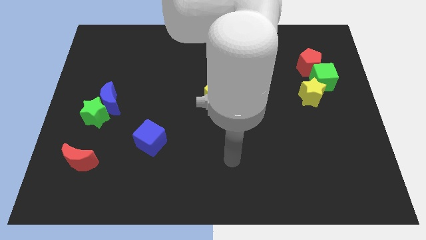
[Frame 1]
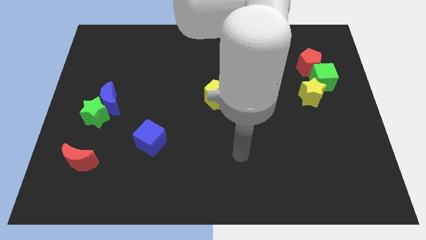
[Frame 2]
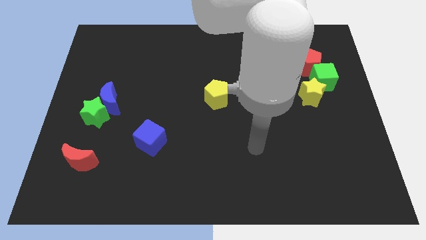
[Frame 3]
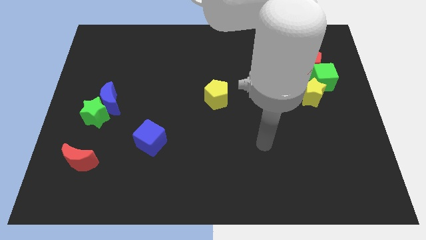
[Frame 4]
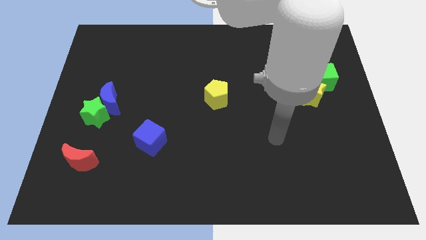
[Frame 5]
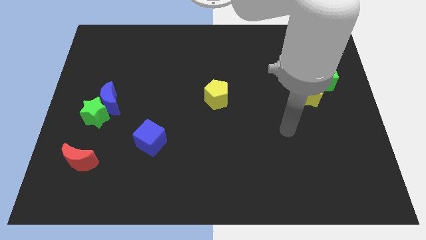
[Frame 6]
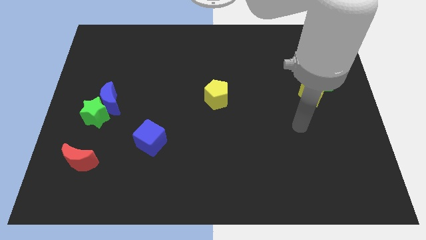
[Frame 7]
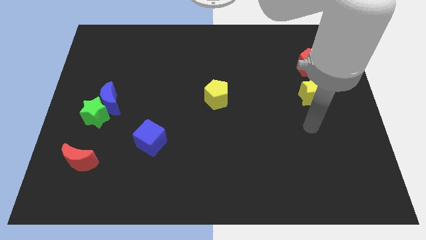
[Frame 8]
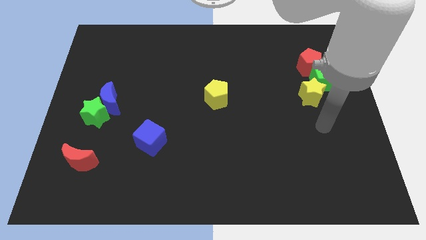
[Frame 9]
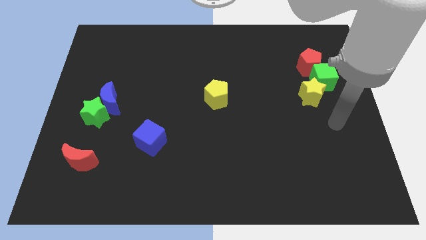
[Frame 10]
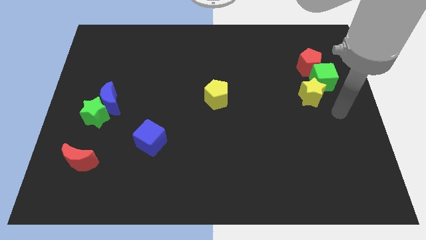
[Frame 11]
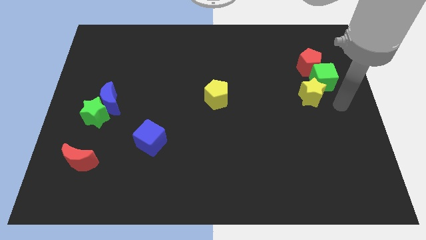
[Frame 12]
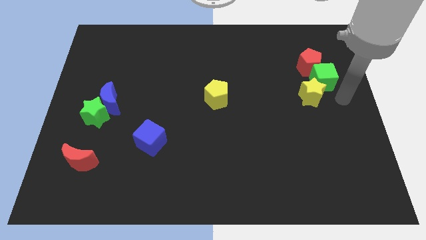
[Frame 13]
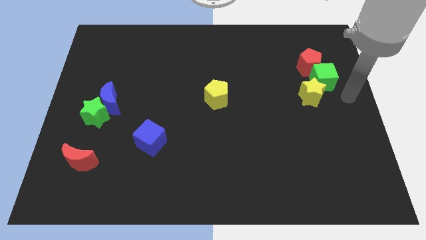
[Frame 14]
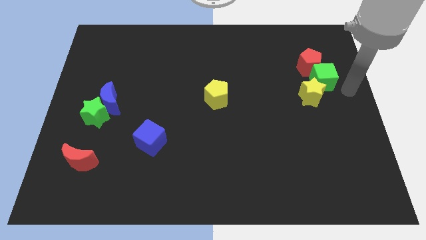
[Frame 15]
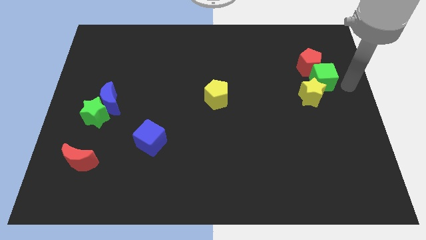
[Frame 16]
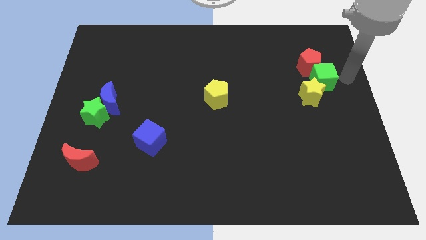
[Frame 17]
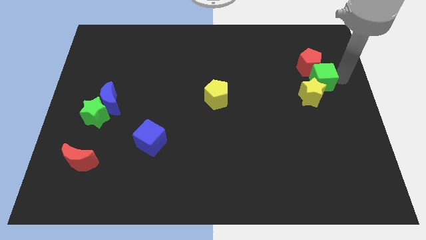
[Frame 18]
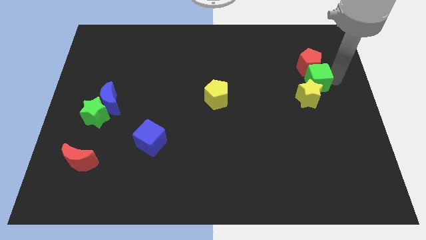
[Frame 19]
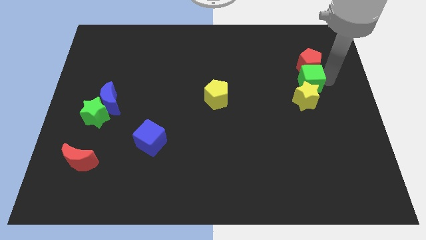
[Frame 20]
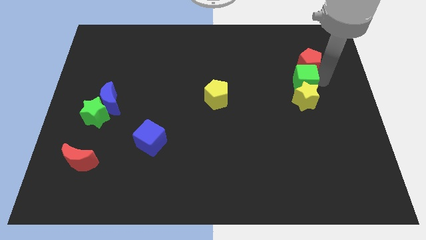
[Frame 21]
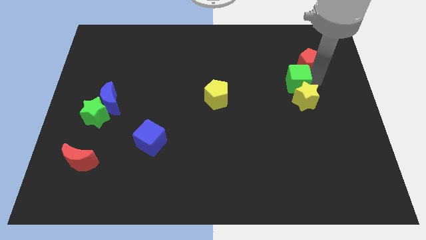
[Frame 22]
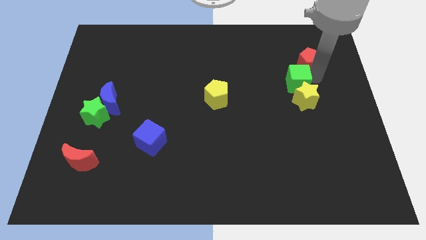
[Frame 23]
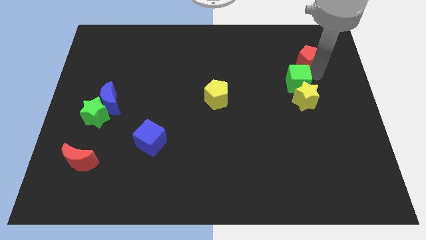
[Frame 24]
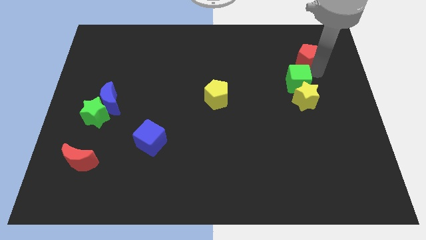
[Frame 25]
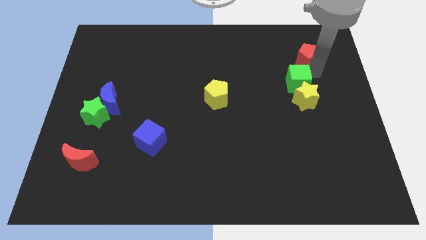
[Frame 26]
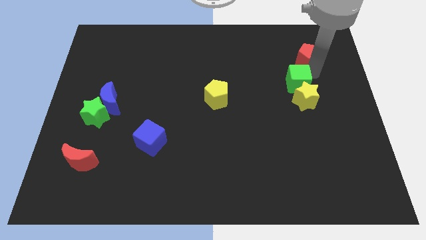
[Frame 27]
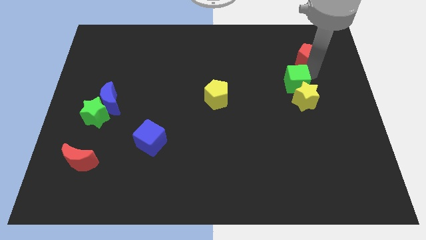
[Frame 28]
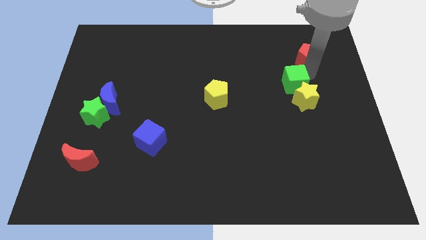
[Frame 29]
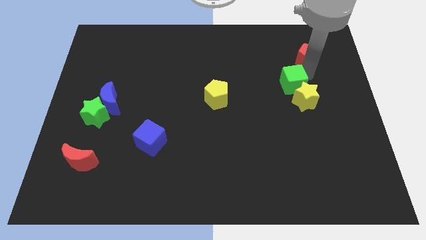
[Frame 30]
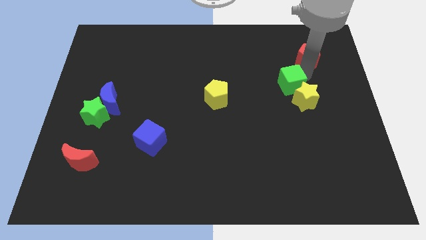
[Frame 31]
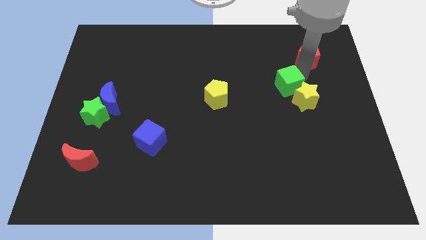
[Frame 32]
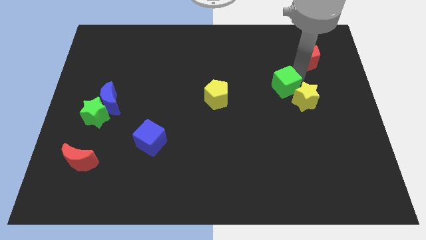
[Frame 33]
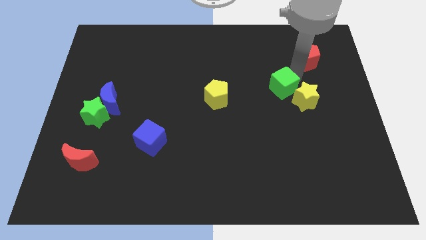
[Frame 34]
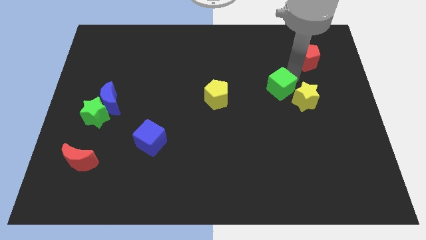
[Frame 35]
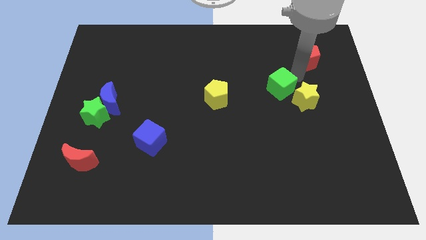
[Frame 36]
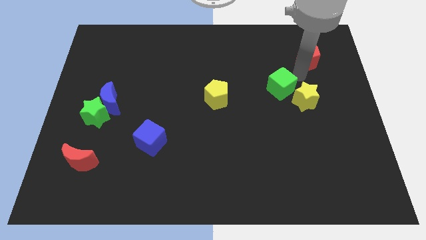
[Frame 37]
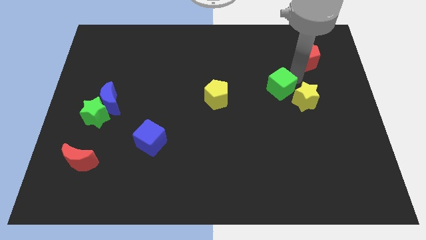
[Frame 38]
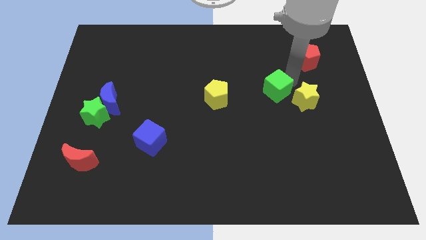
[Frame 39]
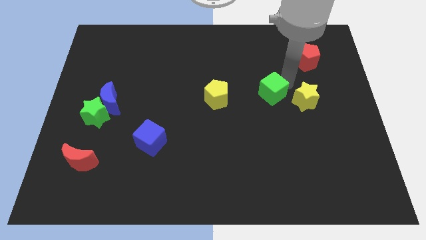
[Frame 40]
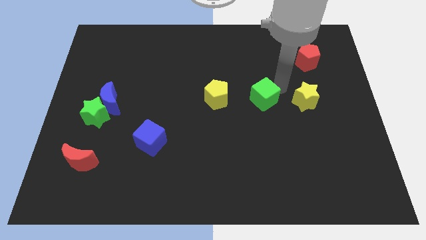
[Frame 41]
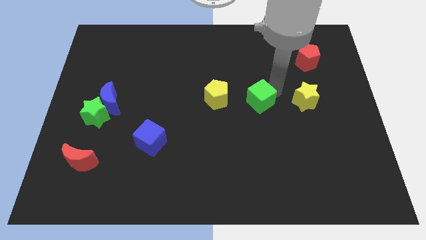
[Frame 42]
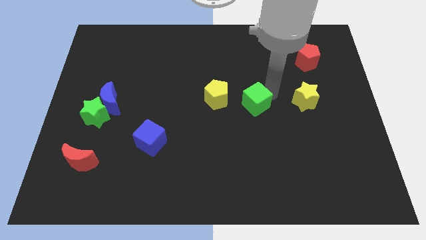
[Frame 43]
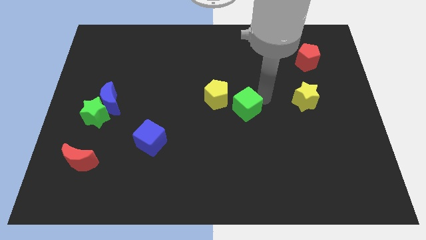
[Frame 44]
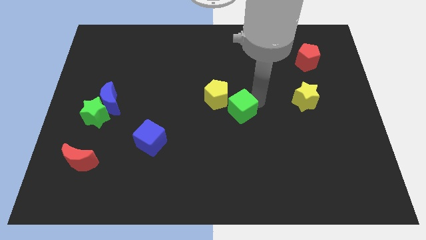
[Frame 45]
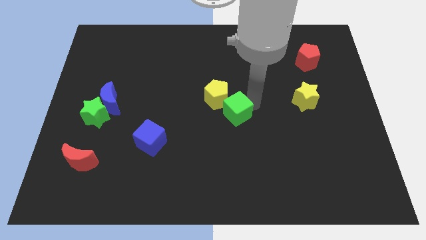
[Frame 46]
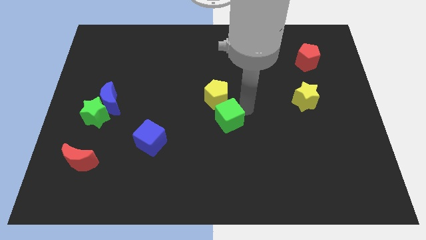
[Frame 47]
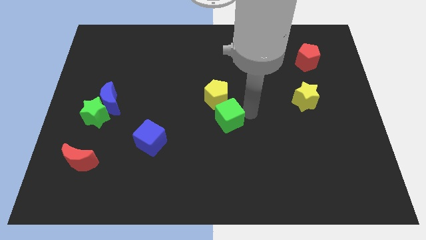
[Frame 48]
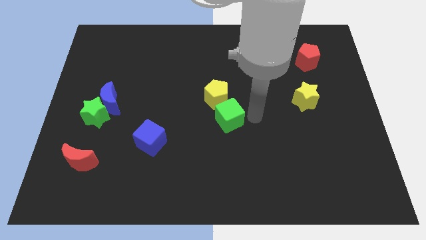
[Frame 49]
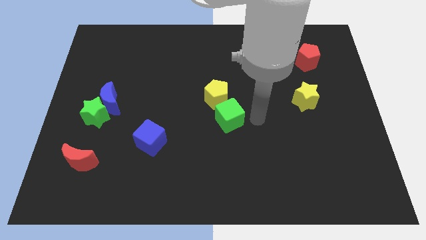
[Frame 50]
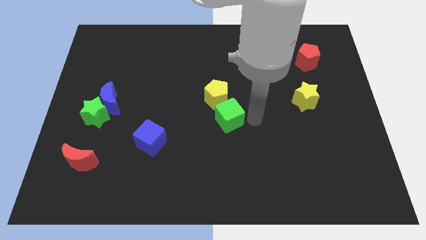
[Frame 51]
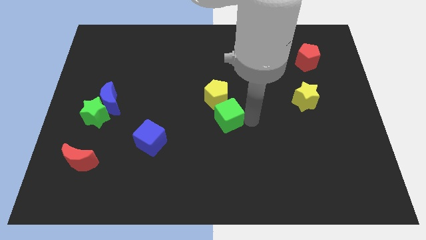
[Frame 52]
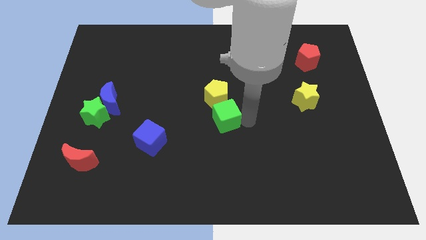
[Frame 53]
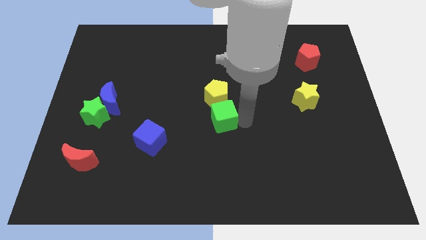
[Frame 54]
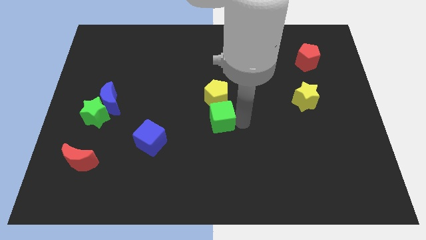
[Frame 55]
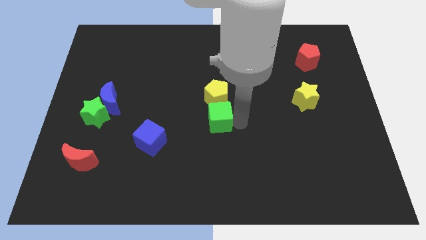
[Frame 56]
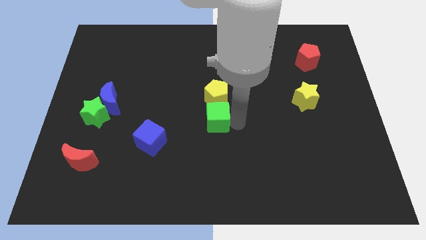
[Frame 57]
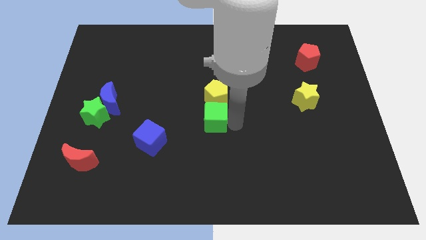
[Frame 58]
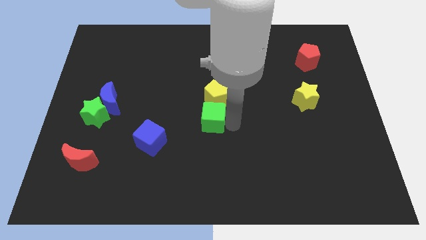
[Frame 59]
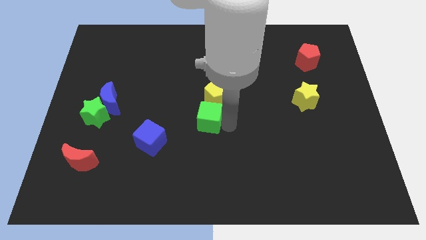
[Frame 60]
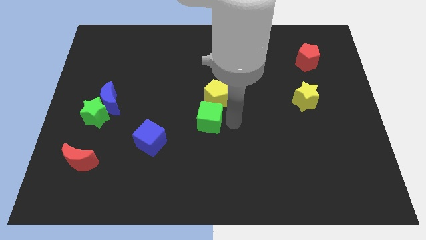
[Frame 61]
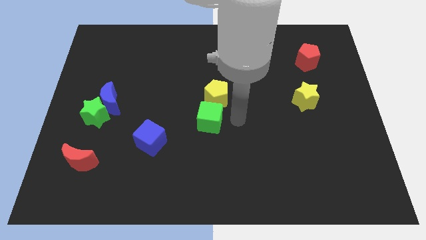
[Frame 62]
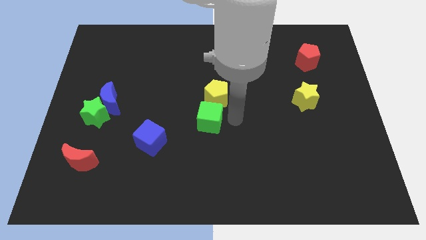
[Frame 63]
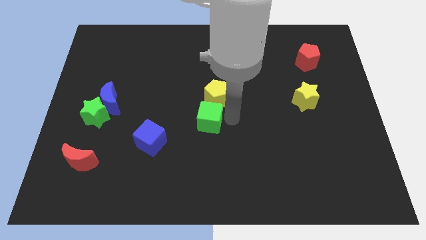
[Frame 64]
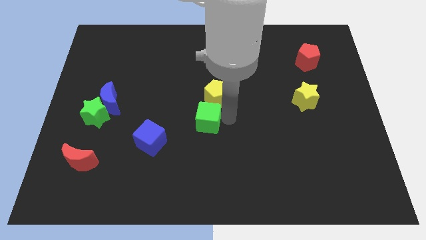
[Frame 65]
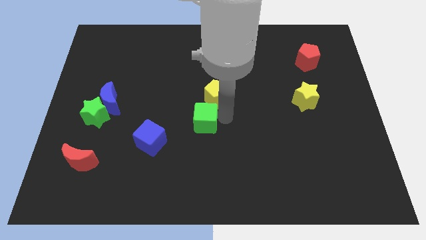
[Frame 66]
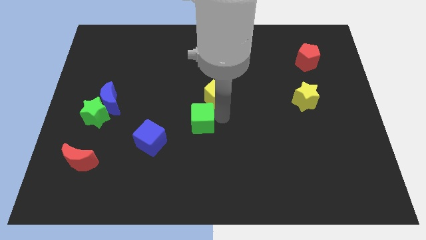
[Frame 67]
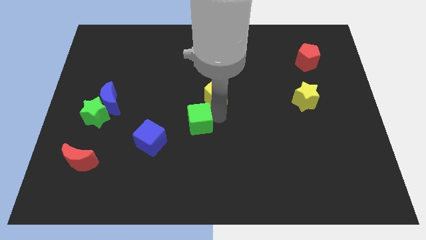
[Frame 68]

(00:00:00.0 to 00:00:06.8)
slide the green cube to the top right of the blue cube
